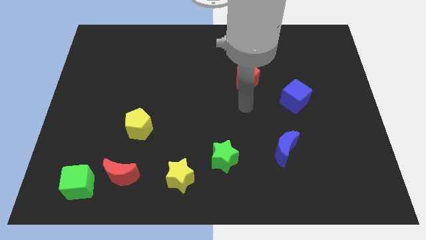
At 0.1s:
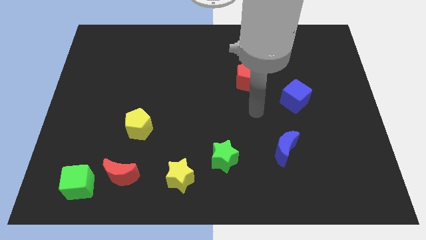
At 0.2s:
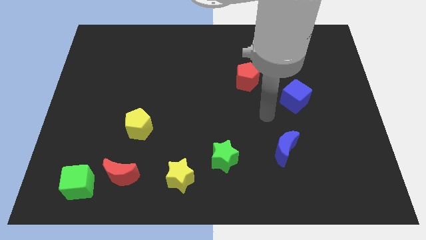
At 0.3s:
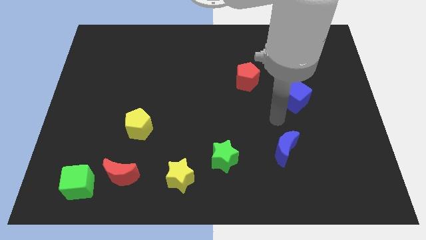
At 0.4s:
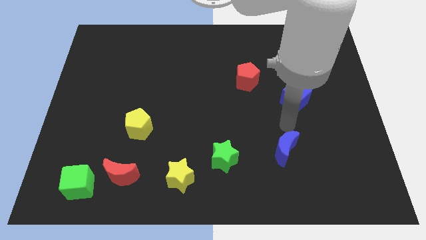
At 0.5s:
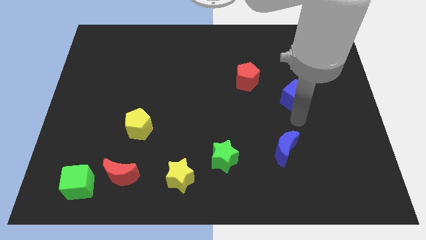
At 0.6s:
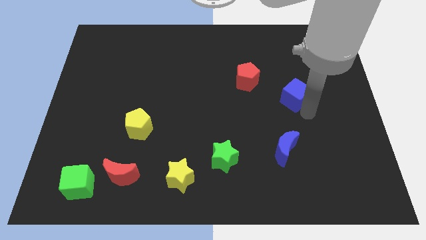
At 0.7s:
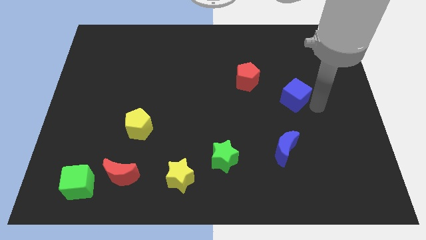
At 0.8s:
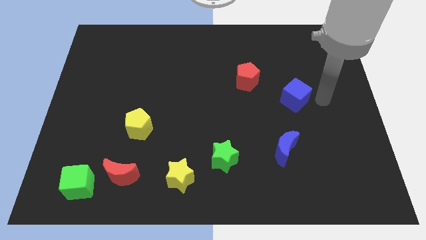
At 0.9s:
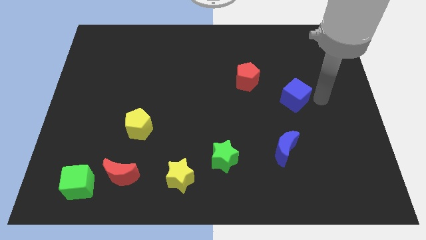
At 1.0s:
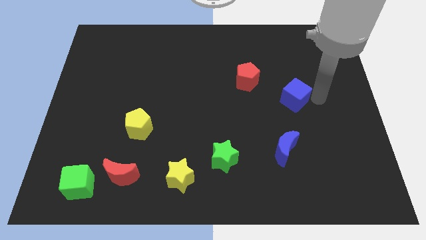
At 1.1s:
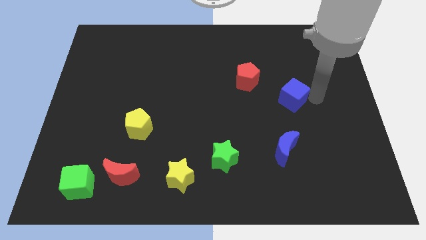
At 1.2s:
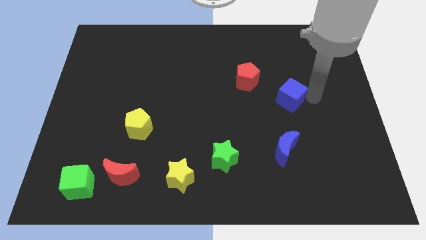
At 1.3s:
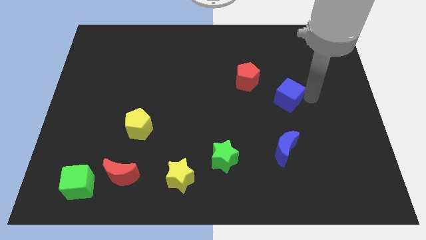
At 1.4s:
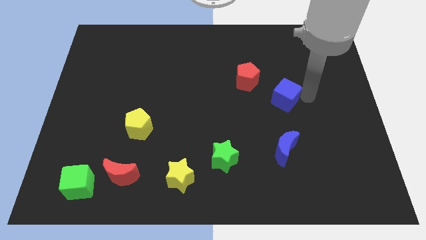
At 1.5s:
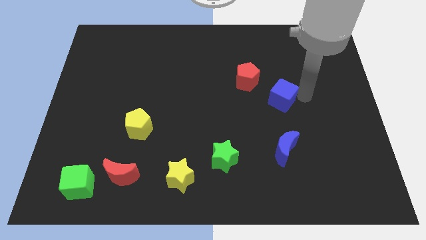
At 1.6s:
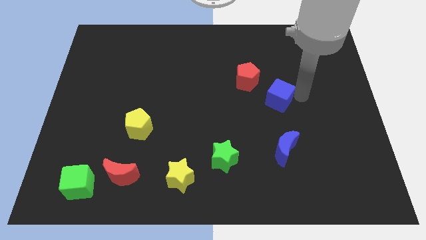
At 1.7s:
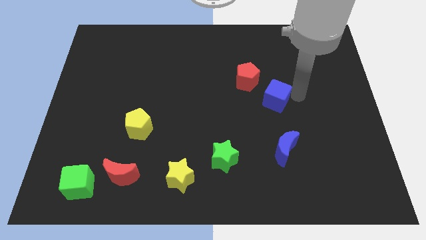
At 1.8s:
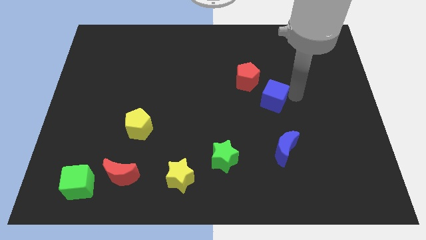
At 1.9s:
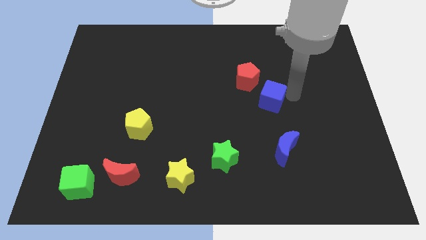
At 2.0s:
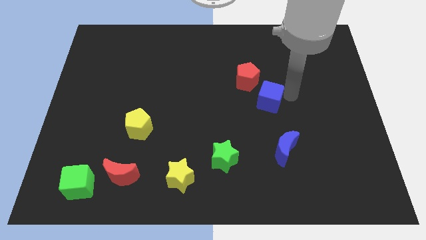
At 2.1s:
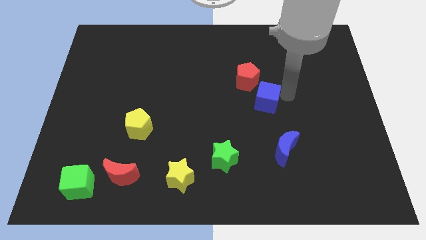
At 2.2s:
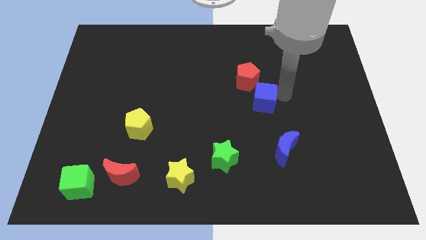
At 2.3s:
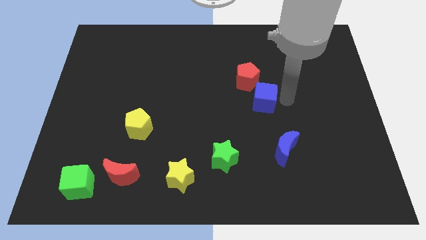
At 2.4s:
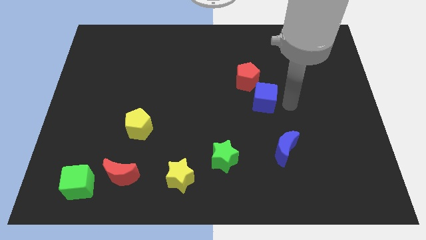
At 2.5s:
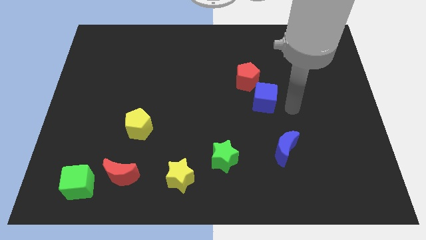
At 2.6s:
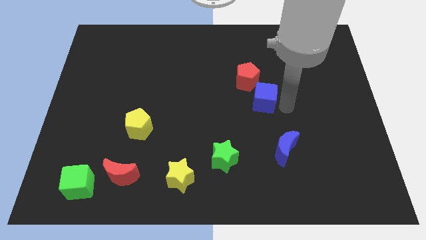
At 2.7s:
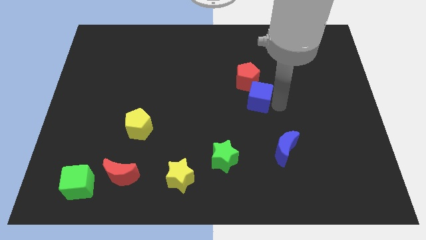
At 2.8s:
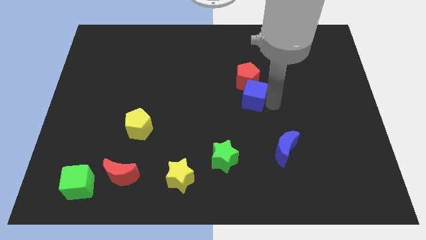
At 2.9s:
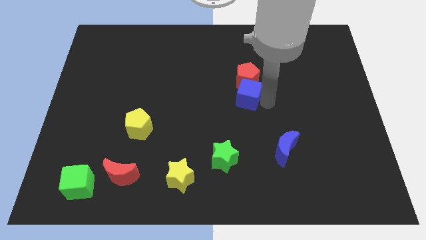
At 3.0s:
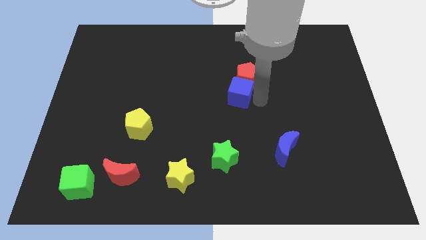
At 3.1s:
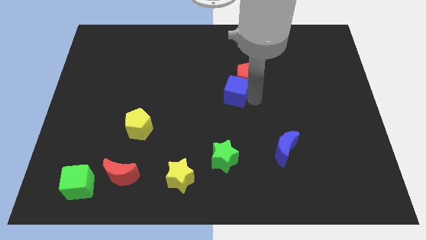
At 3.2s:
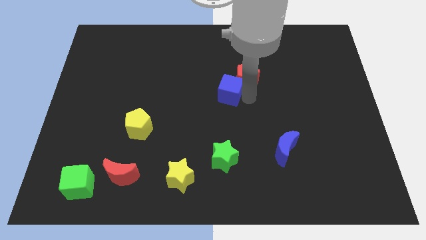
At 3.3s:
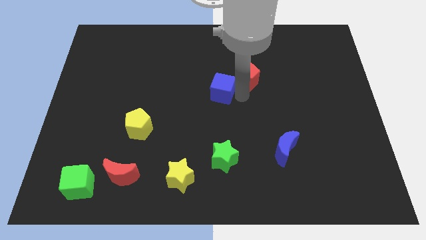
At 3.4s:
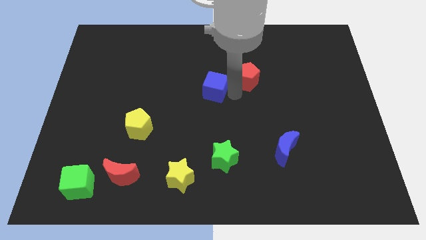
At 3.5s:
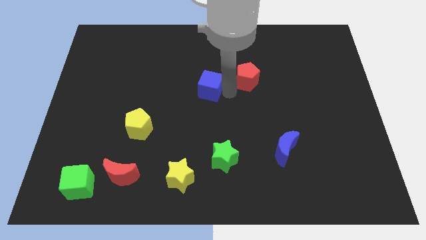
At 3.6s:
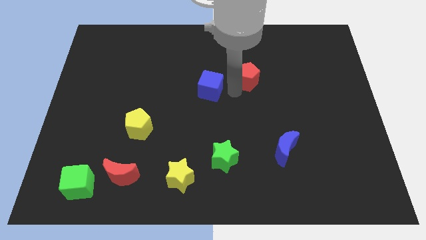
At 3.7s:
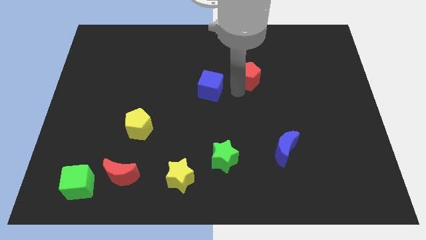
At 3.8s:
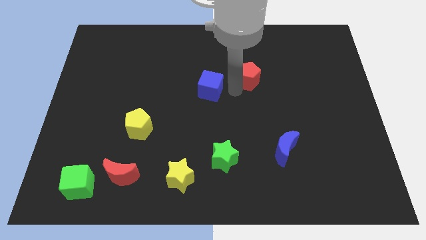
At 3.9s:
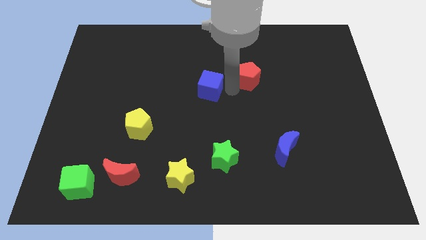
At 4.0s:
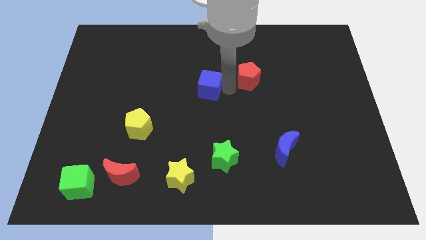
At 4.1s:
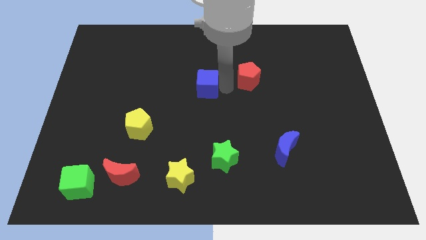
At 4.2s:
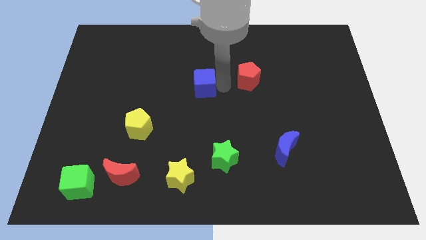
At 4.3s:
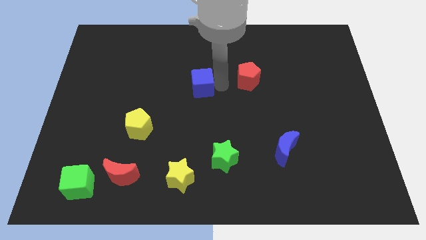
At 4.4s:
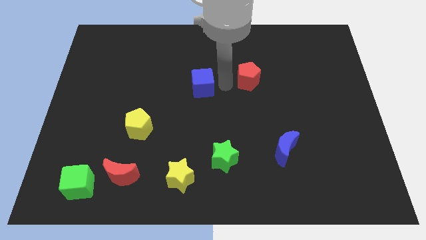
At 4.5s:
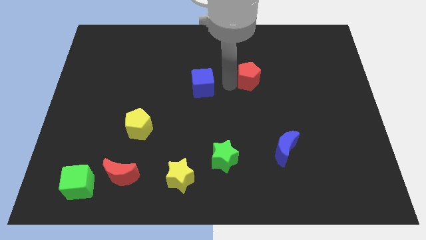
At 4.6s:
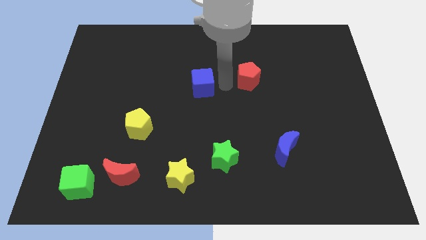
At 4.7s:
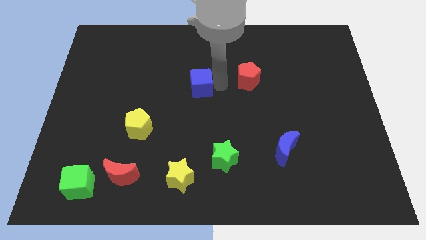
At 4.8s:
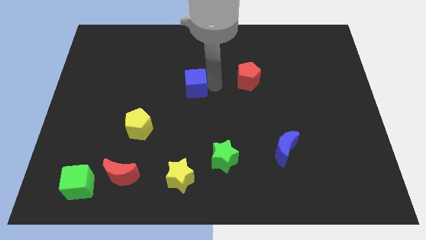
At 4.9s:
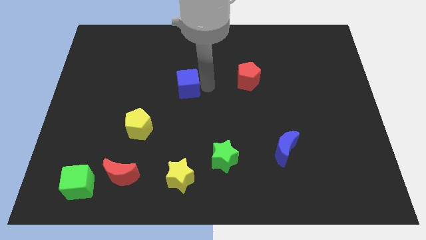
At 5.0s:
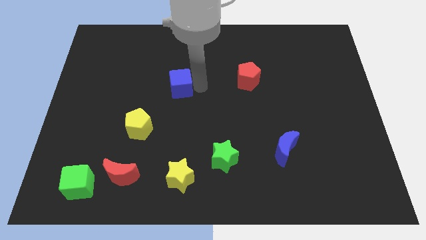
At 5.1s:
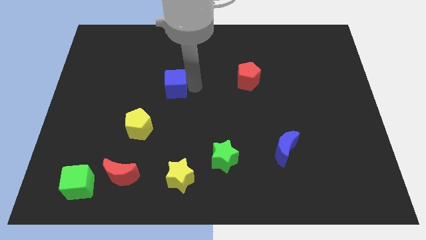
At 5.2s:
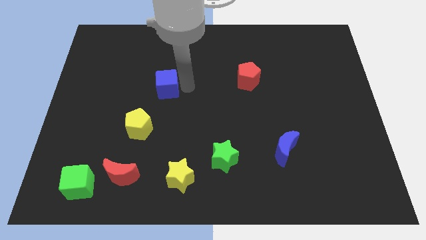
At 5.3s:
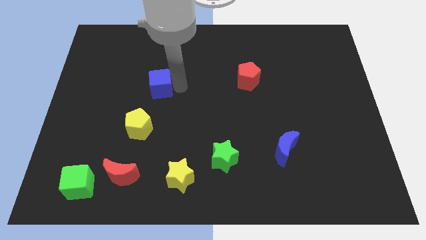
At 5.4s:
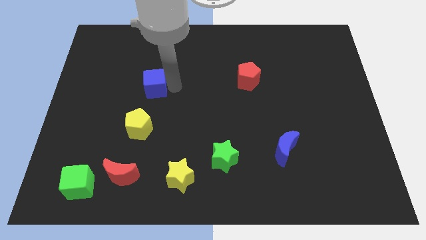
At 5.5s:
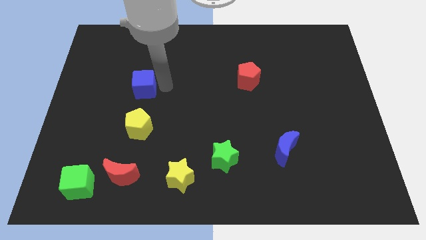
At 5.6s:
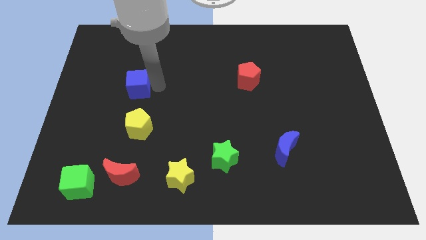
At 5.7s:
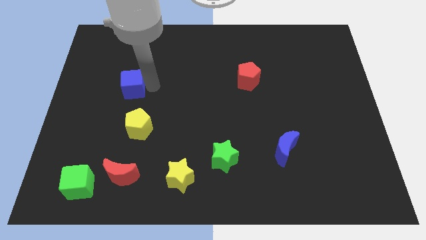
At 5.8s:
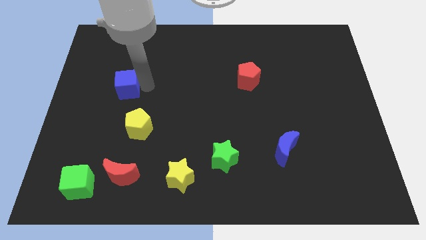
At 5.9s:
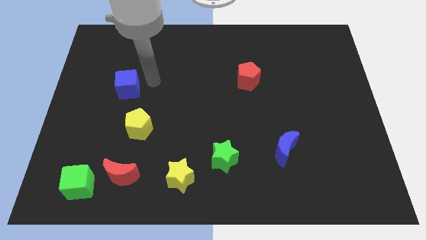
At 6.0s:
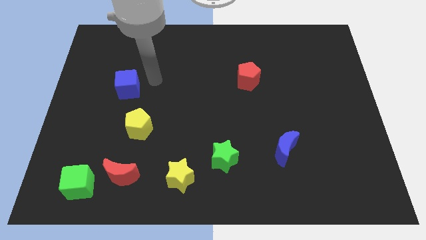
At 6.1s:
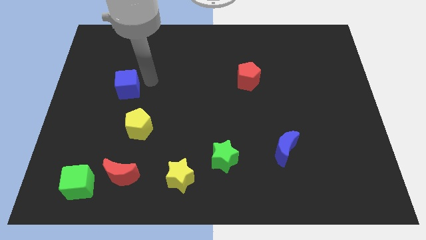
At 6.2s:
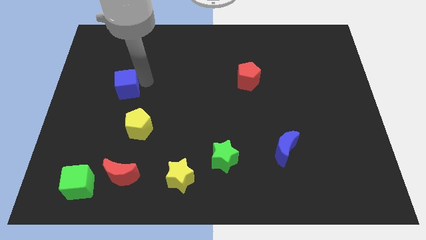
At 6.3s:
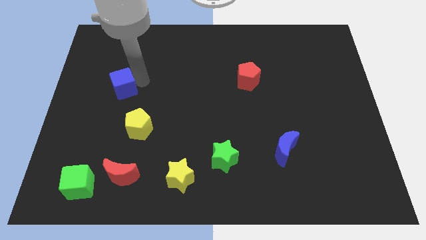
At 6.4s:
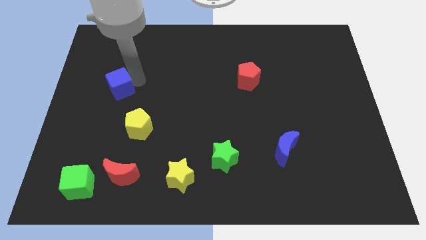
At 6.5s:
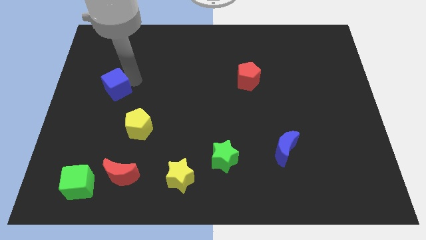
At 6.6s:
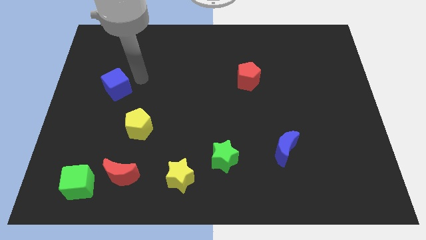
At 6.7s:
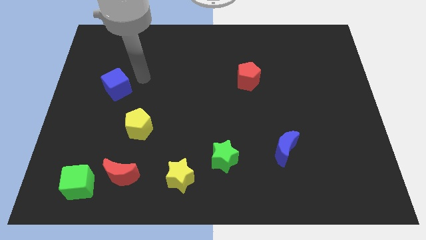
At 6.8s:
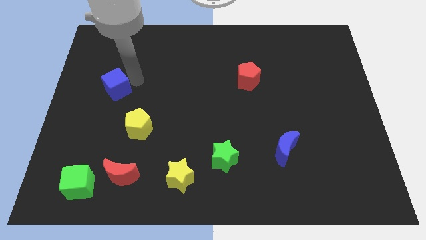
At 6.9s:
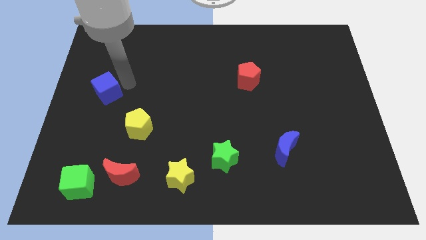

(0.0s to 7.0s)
slide the blue cube to the center left
